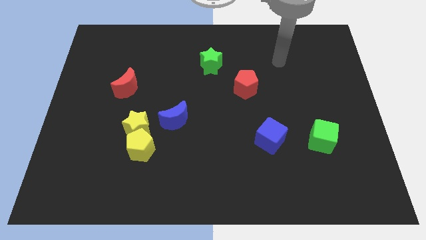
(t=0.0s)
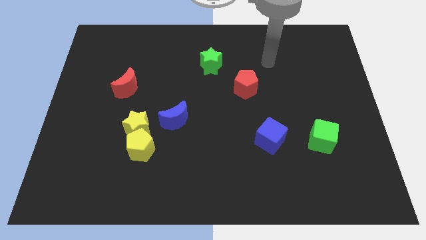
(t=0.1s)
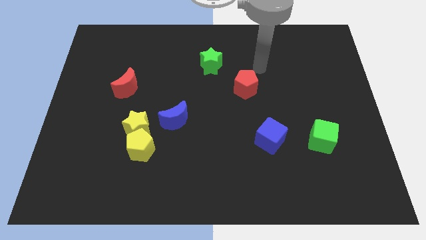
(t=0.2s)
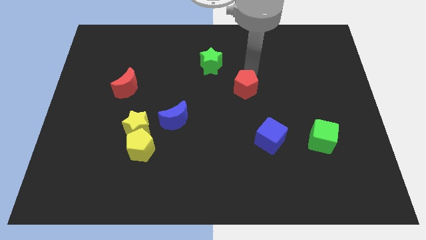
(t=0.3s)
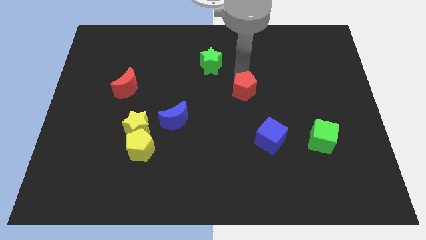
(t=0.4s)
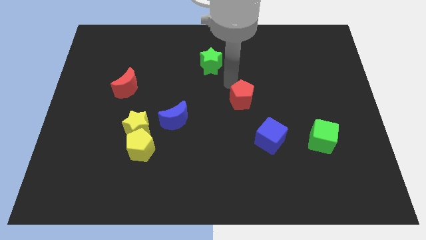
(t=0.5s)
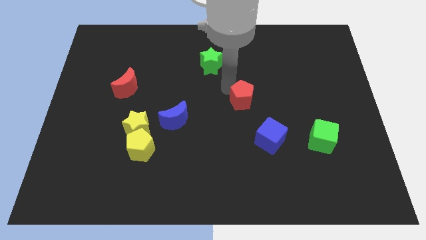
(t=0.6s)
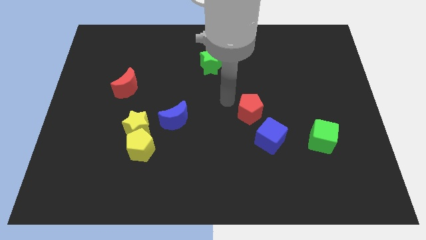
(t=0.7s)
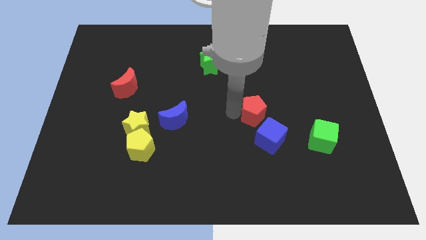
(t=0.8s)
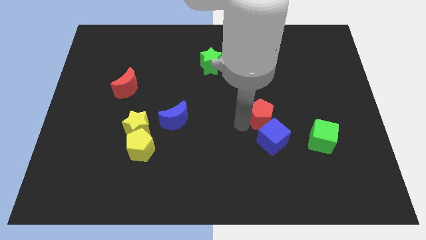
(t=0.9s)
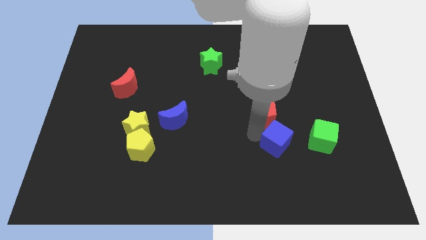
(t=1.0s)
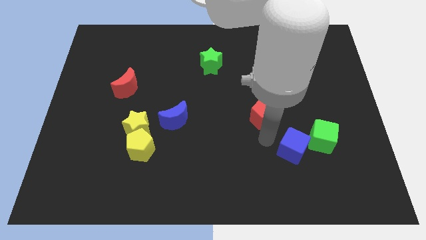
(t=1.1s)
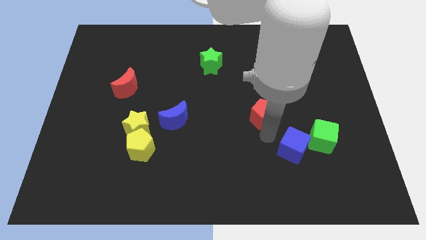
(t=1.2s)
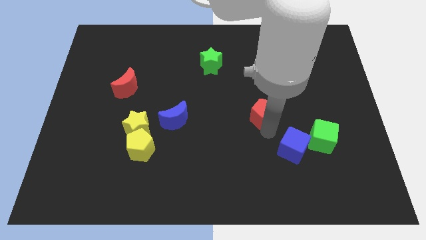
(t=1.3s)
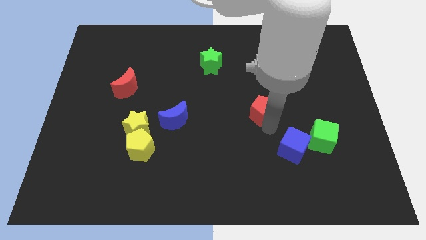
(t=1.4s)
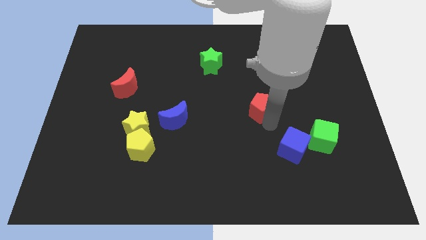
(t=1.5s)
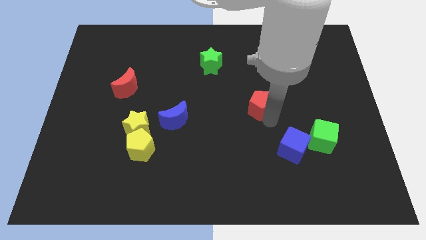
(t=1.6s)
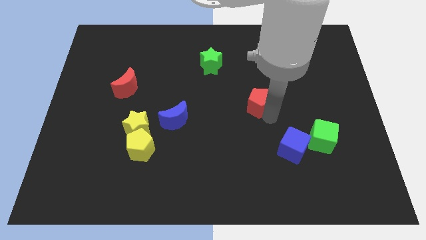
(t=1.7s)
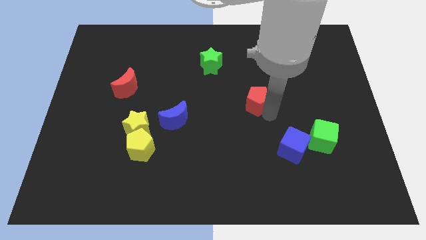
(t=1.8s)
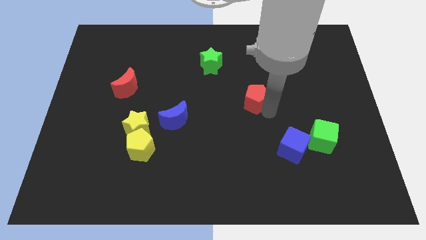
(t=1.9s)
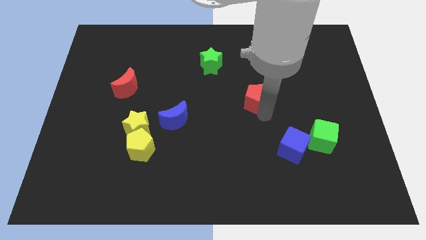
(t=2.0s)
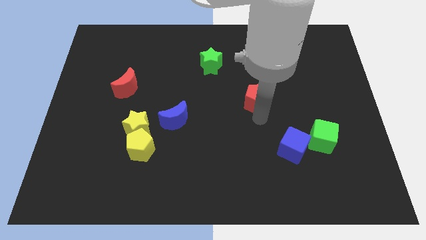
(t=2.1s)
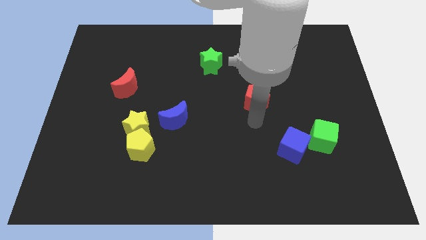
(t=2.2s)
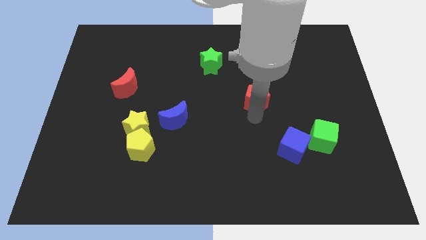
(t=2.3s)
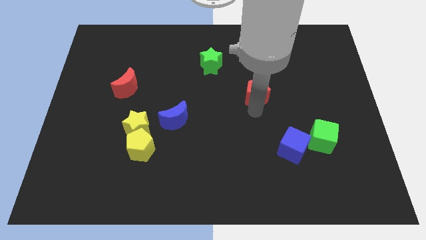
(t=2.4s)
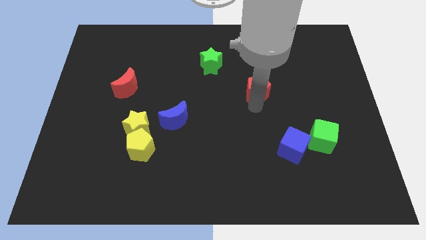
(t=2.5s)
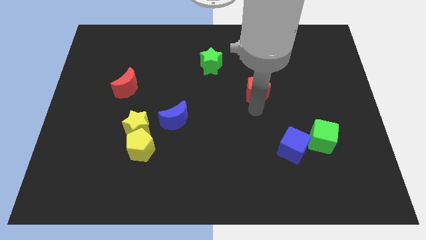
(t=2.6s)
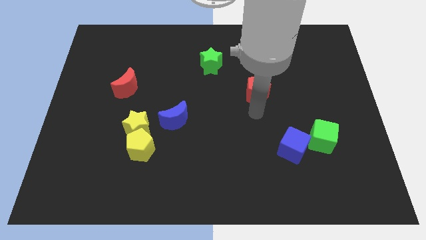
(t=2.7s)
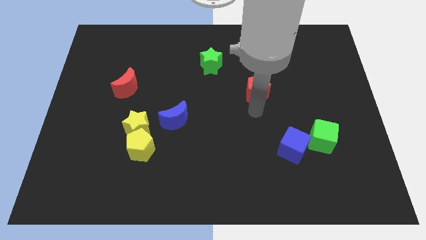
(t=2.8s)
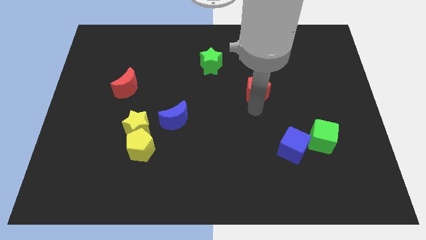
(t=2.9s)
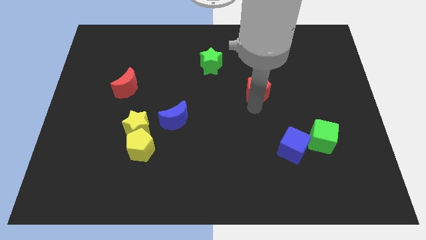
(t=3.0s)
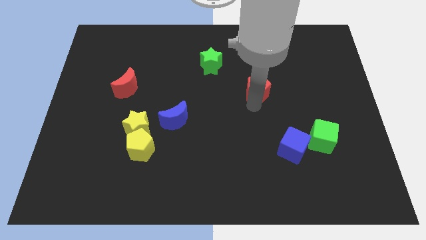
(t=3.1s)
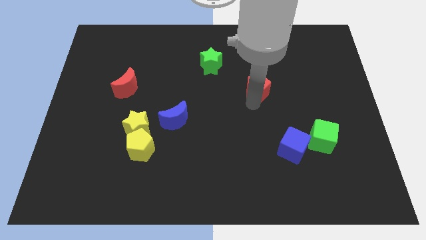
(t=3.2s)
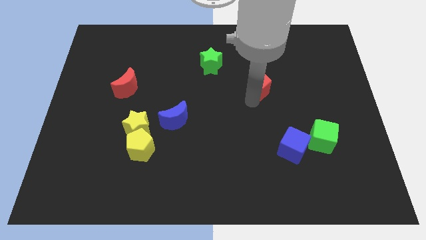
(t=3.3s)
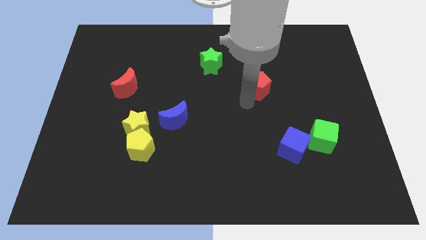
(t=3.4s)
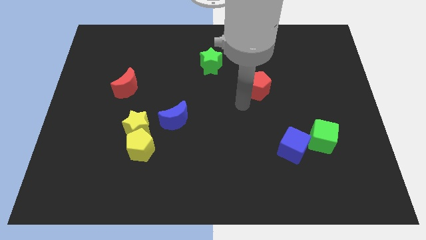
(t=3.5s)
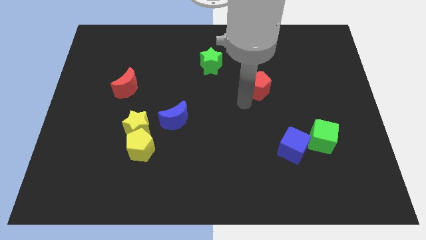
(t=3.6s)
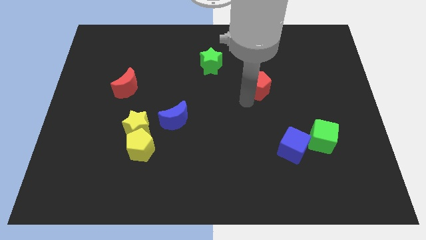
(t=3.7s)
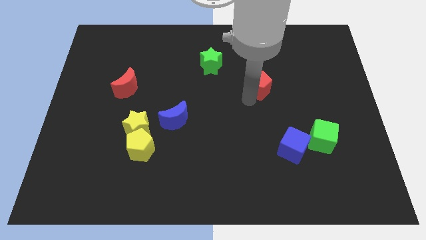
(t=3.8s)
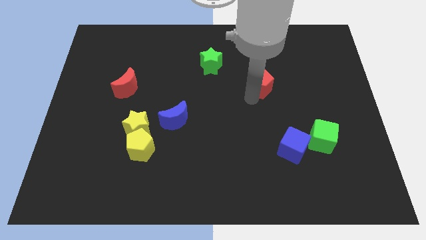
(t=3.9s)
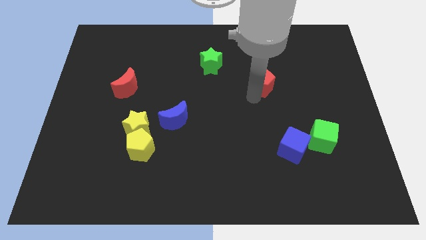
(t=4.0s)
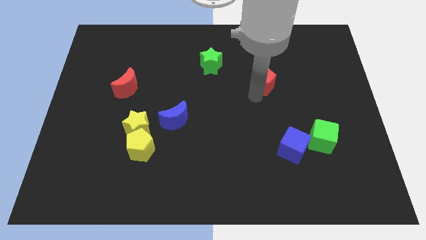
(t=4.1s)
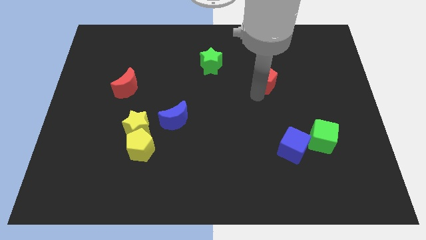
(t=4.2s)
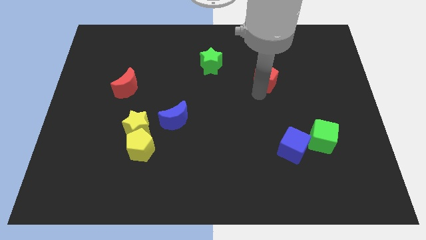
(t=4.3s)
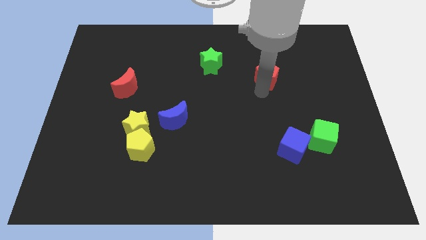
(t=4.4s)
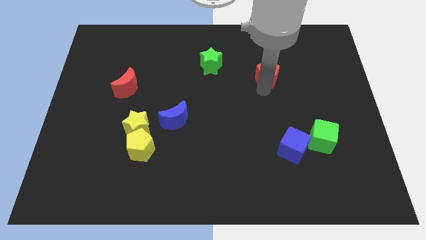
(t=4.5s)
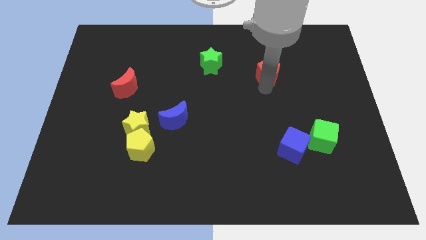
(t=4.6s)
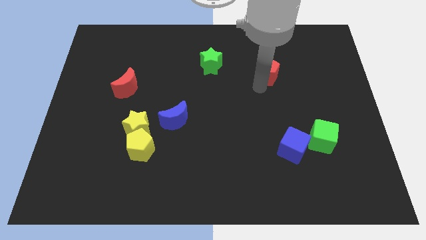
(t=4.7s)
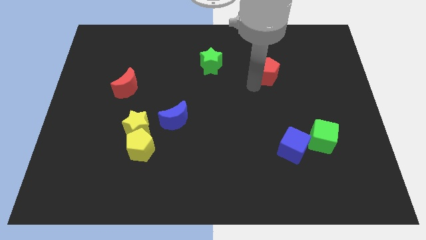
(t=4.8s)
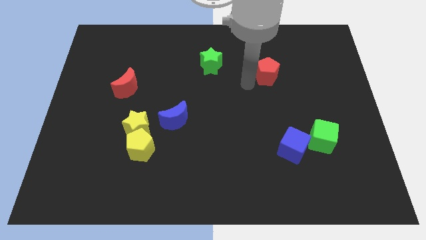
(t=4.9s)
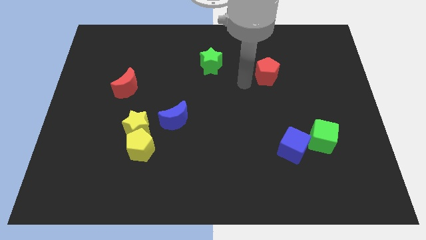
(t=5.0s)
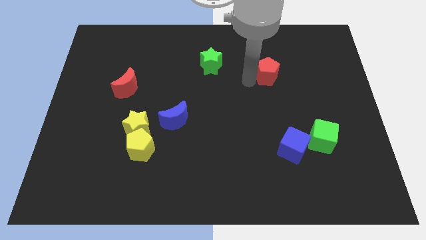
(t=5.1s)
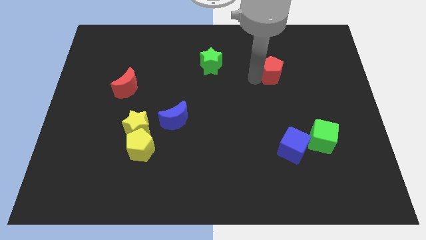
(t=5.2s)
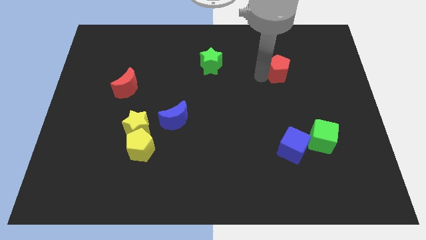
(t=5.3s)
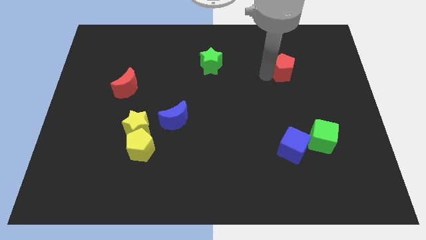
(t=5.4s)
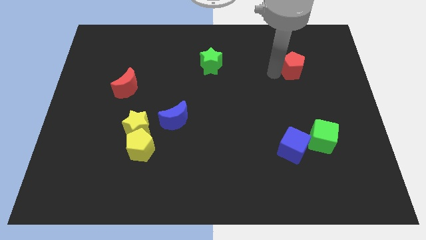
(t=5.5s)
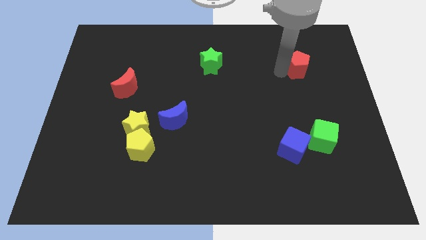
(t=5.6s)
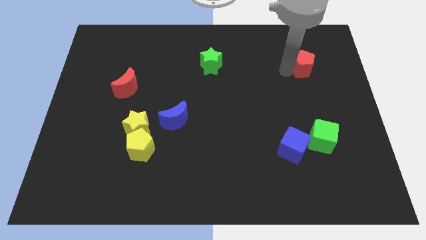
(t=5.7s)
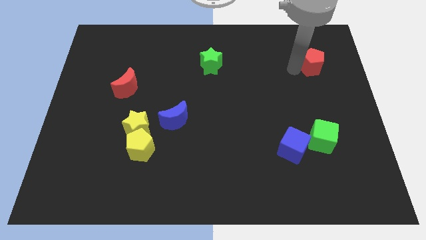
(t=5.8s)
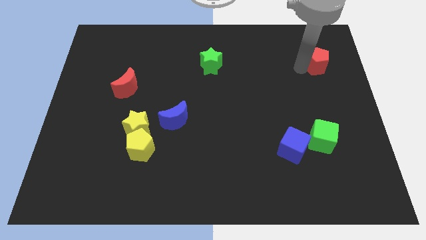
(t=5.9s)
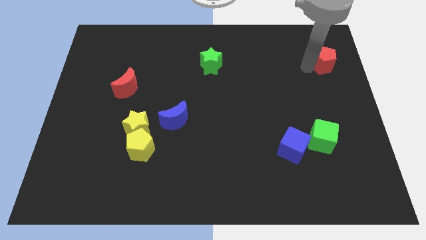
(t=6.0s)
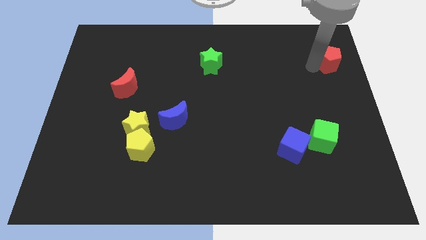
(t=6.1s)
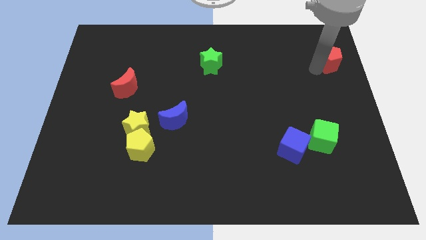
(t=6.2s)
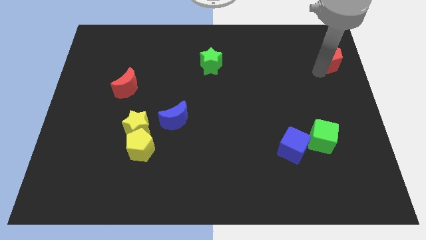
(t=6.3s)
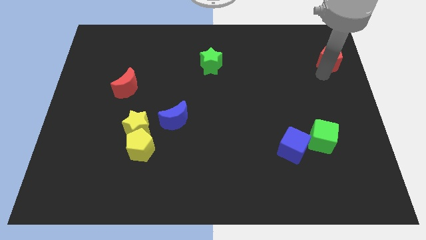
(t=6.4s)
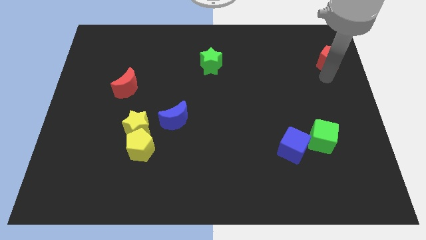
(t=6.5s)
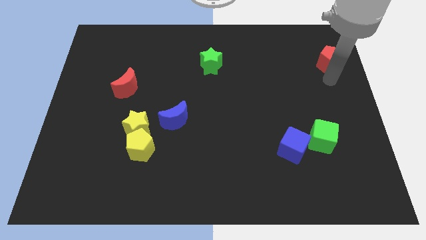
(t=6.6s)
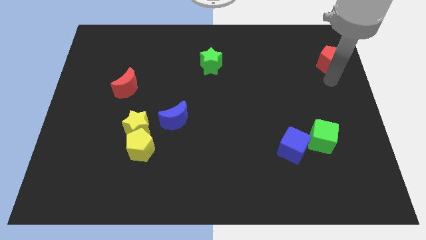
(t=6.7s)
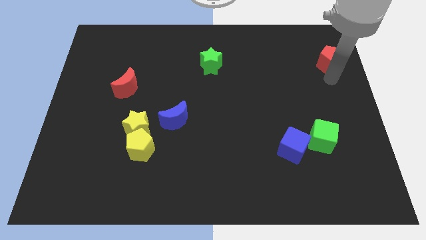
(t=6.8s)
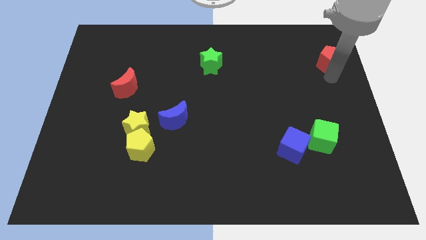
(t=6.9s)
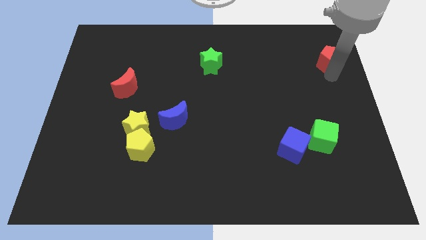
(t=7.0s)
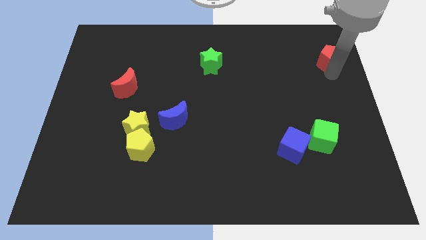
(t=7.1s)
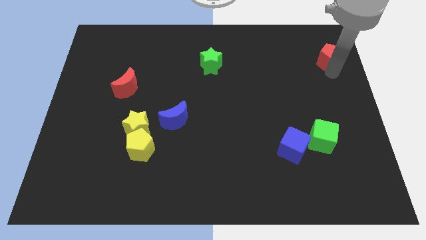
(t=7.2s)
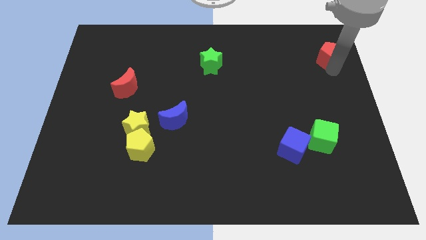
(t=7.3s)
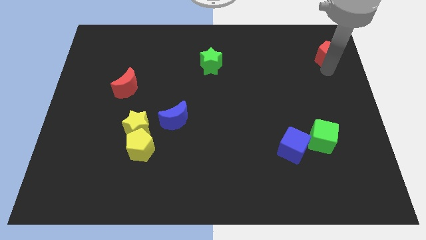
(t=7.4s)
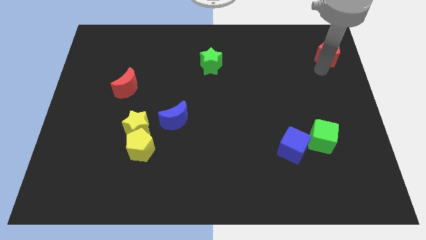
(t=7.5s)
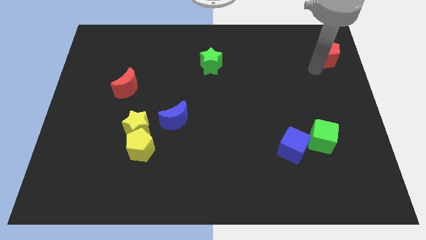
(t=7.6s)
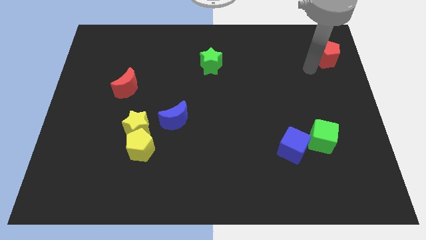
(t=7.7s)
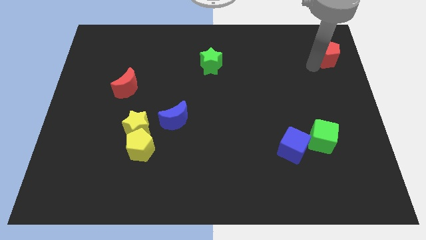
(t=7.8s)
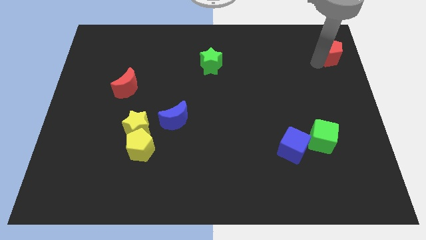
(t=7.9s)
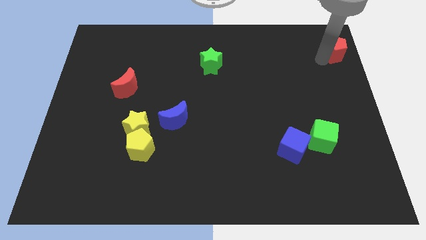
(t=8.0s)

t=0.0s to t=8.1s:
move the red pentagon to the top right
